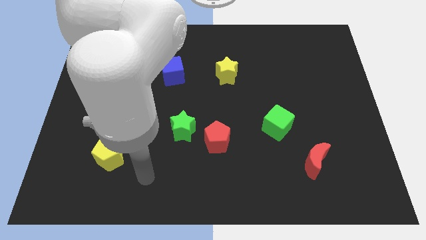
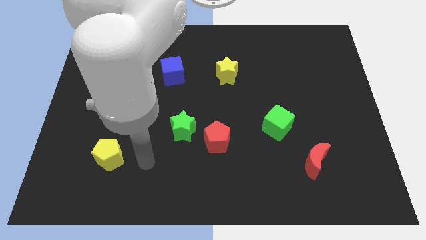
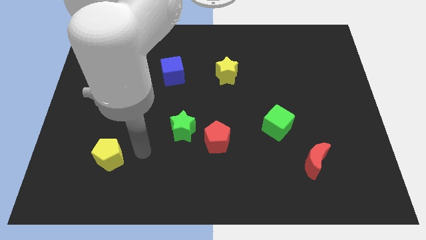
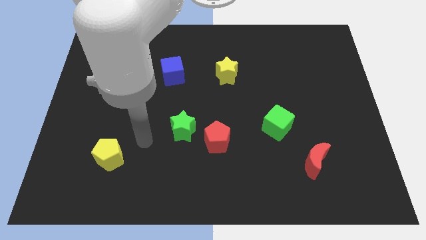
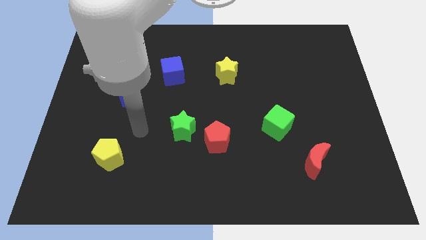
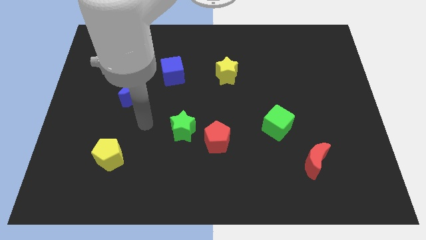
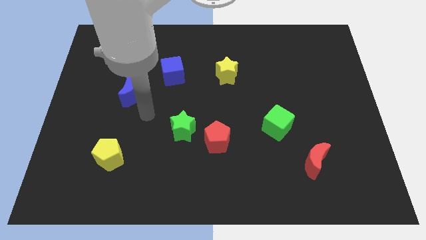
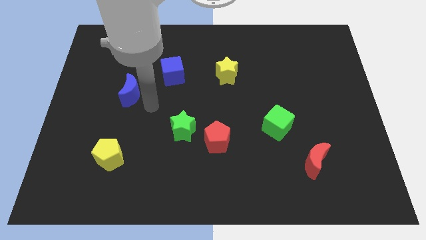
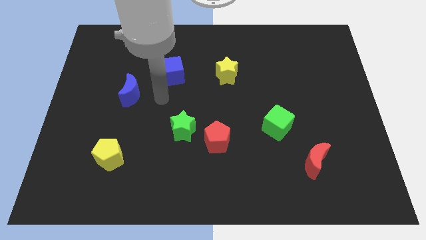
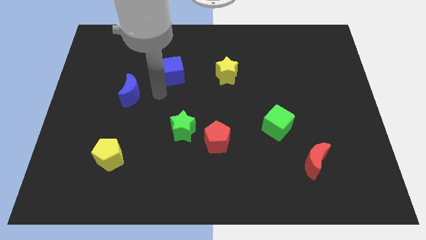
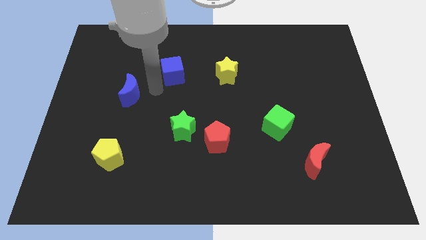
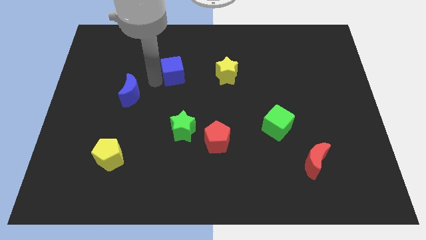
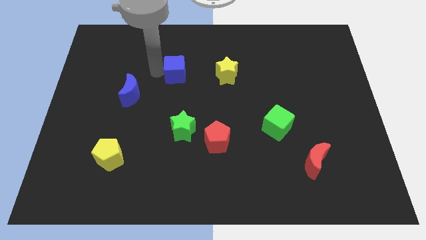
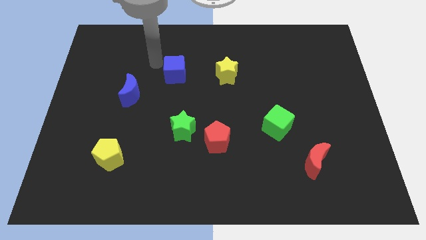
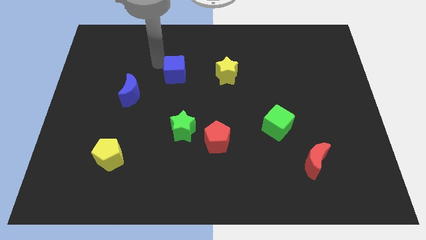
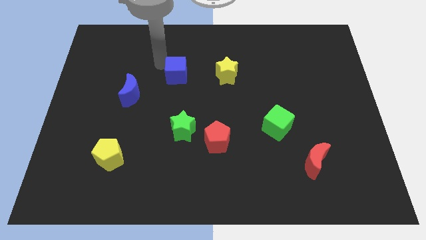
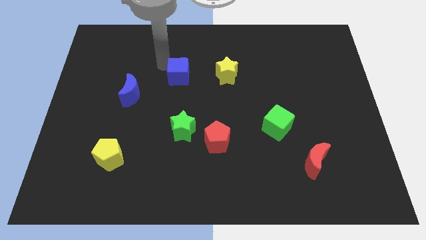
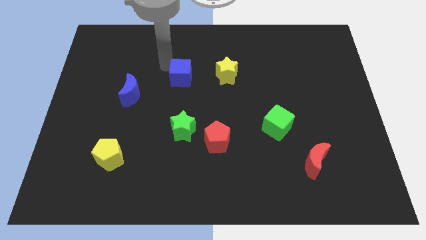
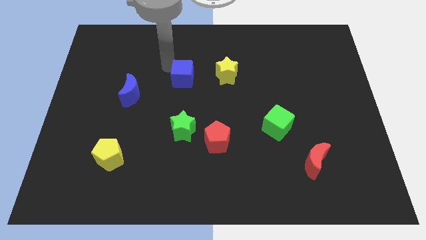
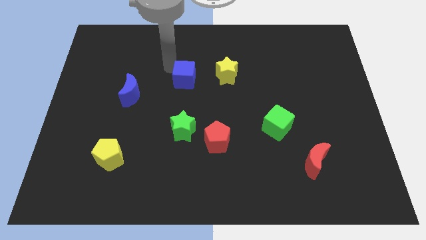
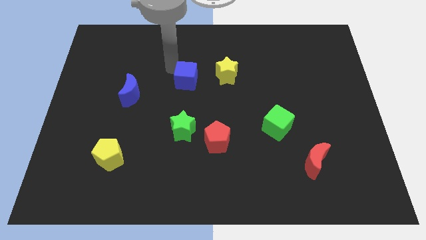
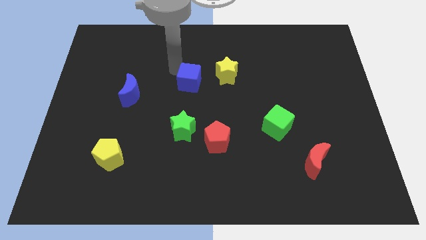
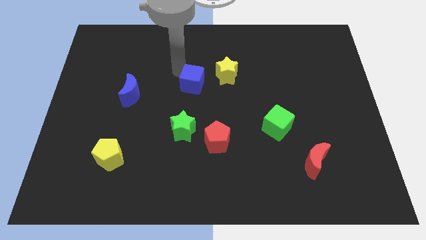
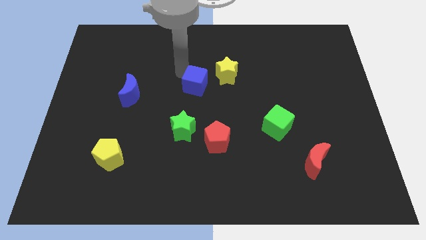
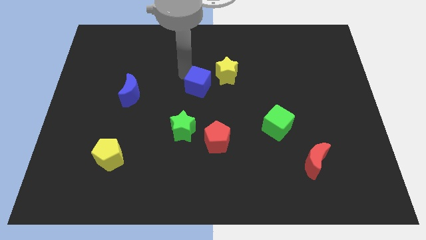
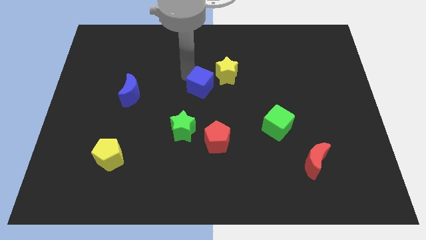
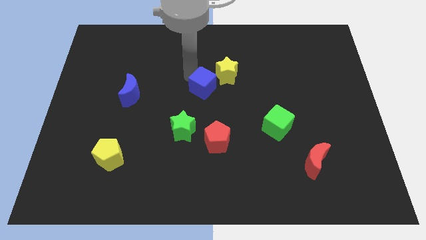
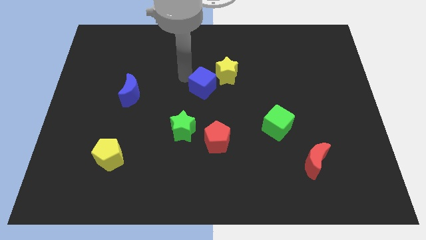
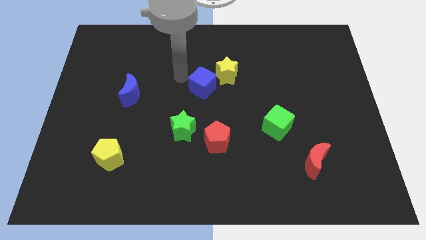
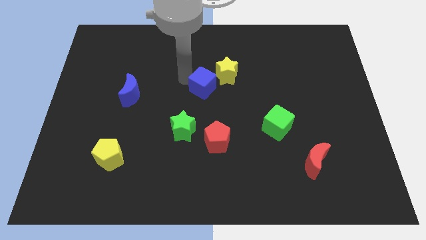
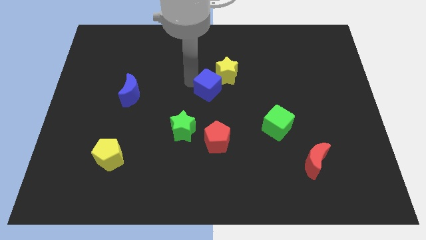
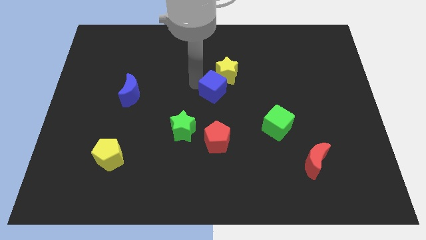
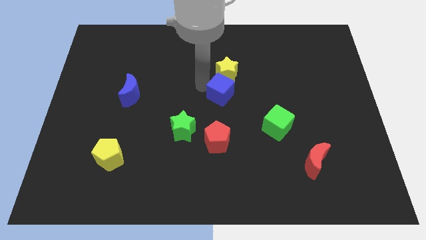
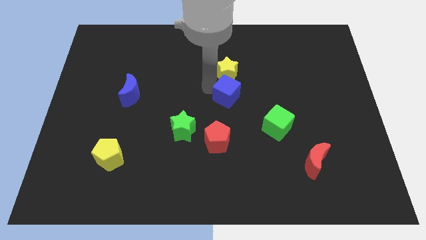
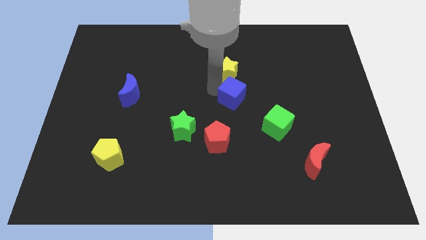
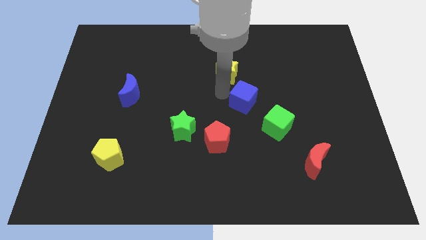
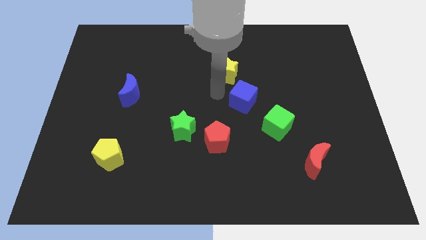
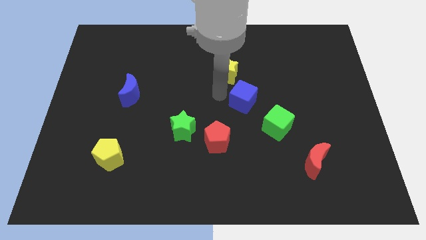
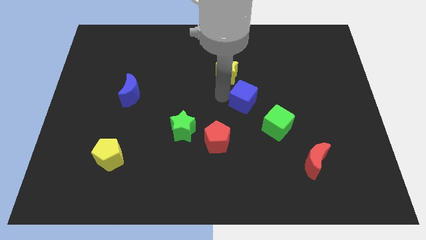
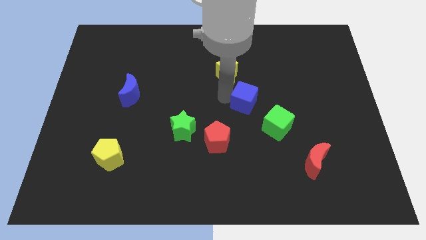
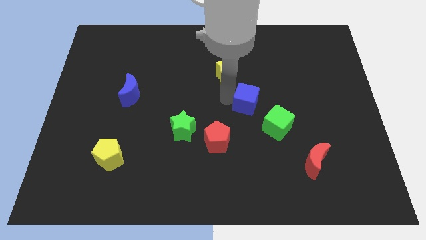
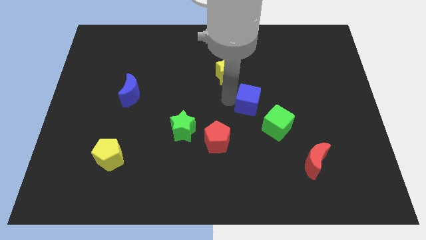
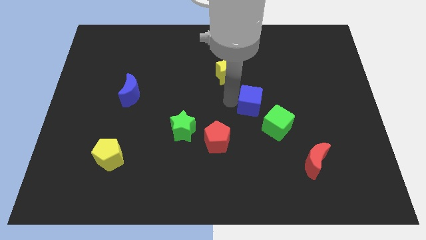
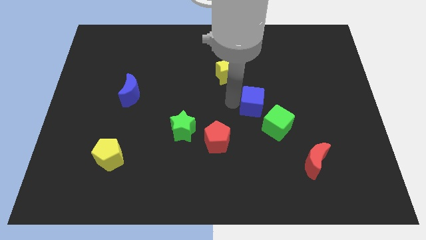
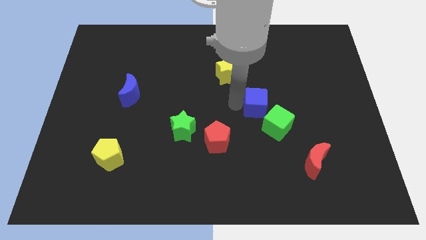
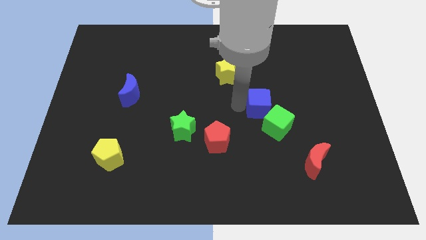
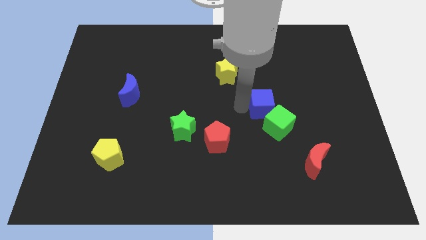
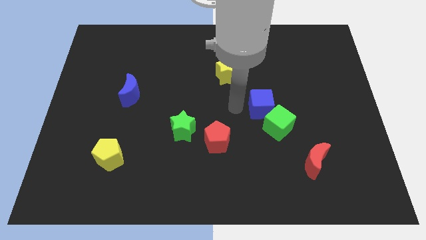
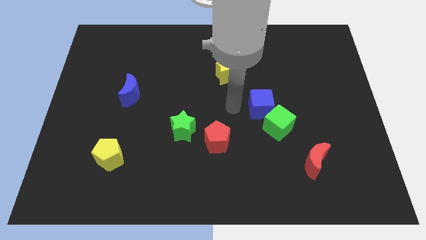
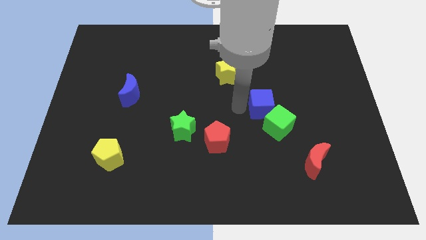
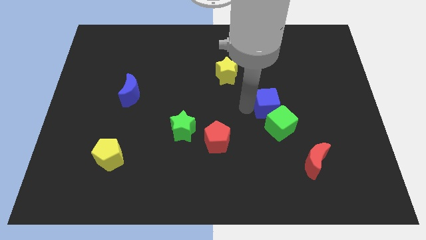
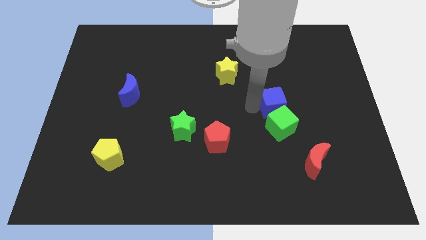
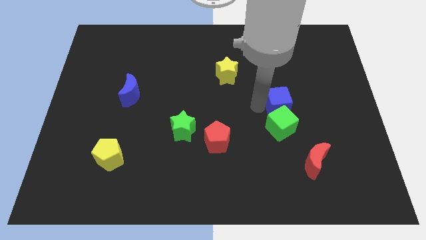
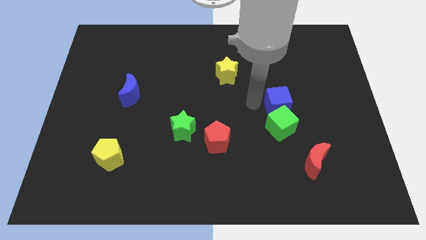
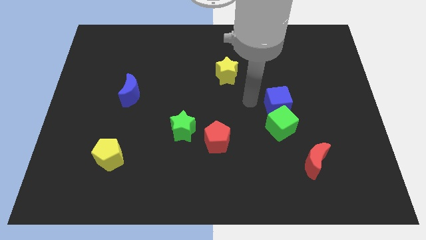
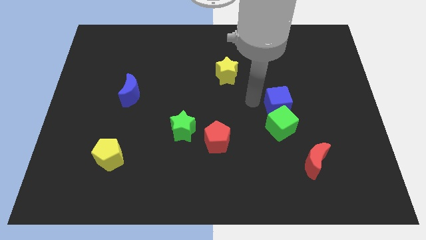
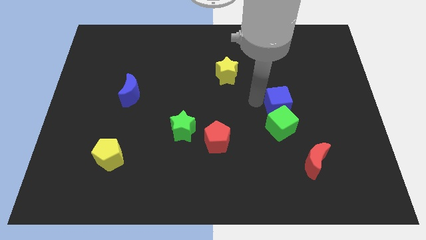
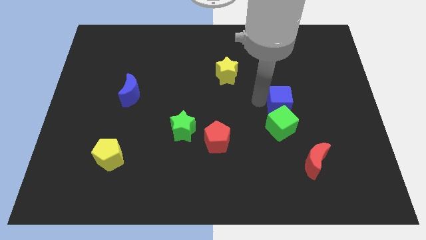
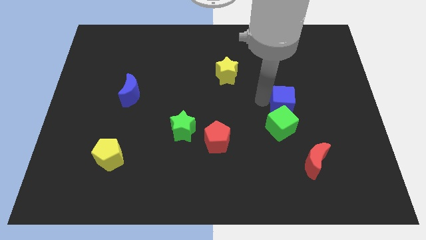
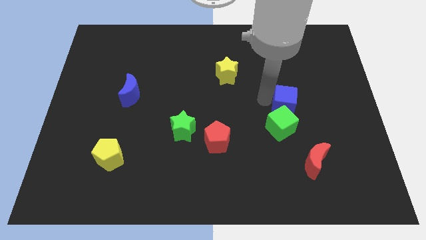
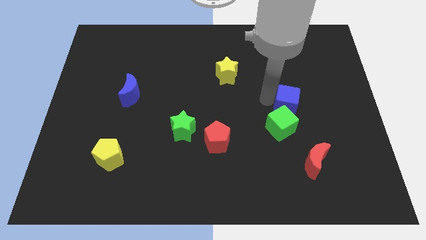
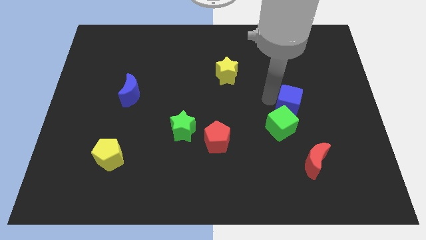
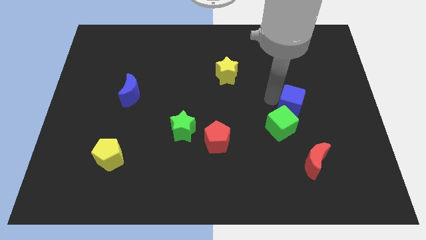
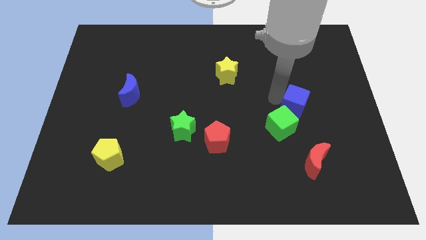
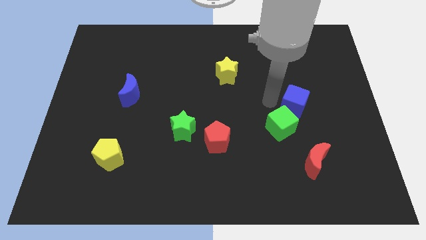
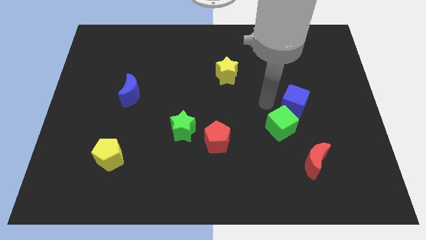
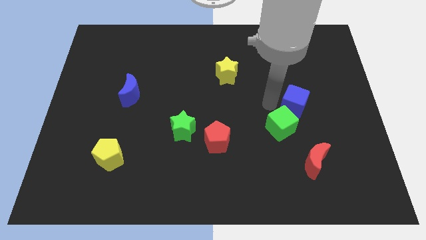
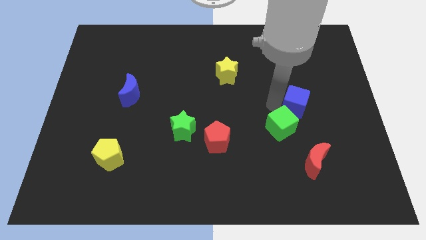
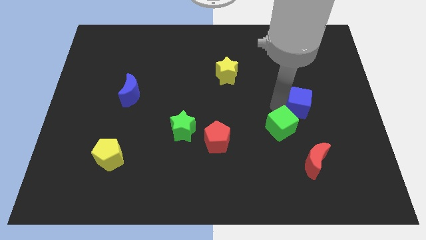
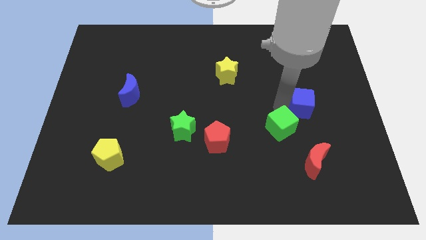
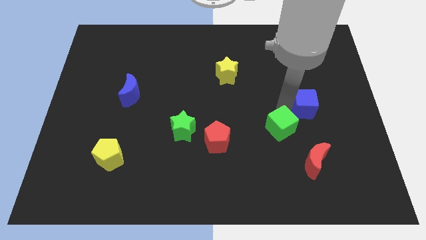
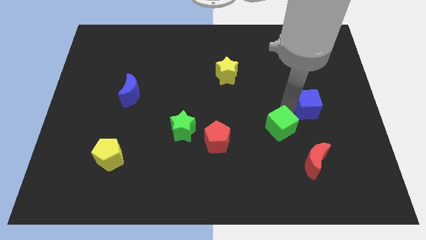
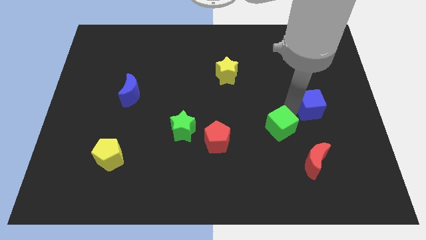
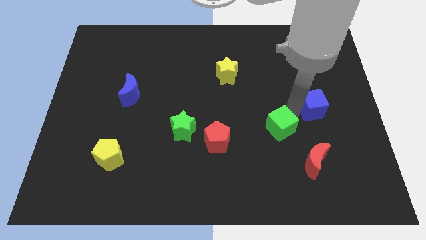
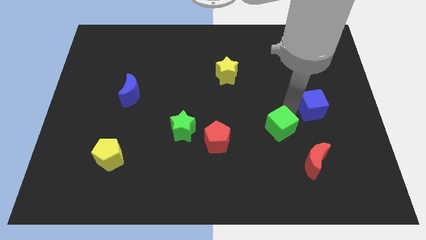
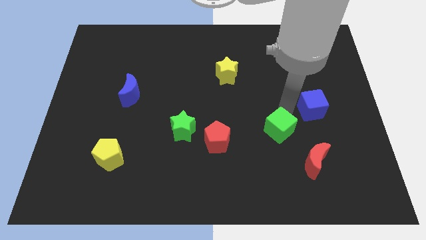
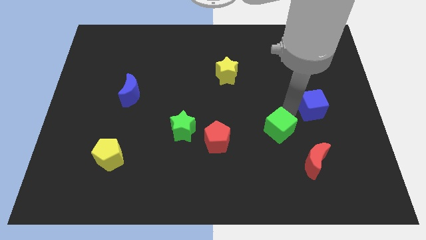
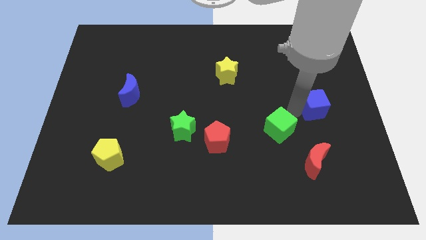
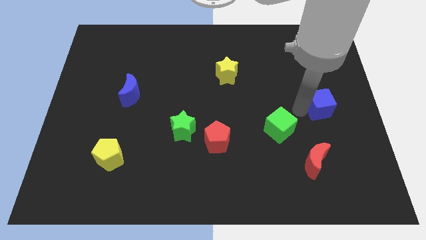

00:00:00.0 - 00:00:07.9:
slide the blue cube to the center right
